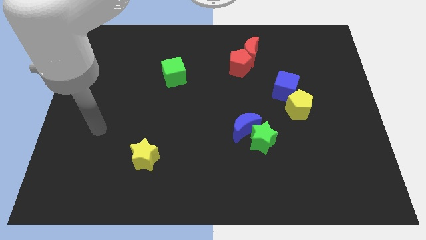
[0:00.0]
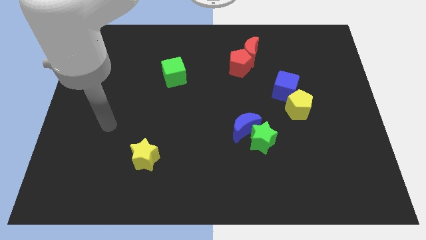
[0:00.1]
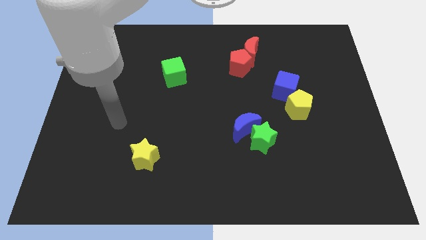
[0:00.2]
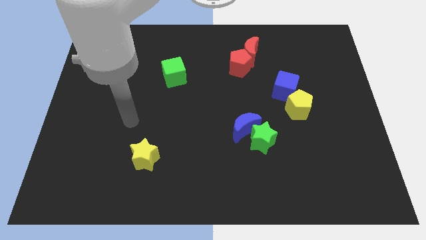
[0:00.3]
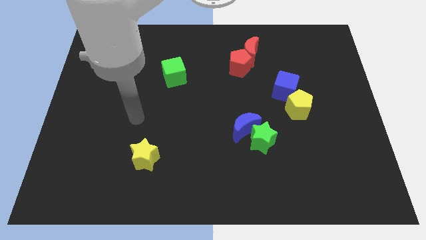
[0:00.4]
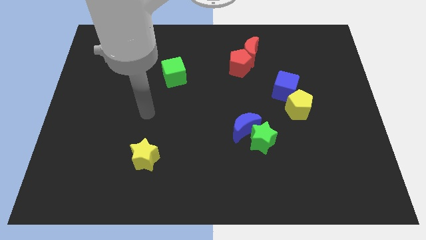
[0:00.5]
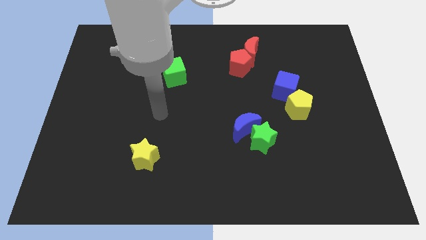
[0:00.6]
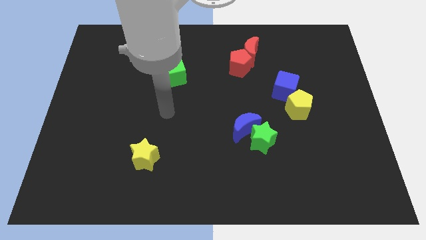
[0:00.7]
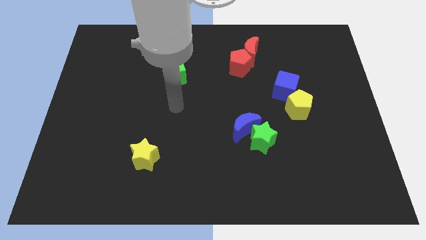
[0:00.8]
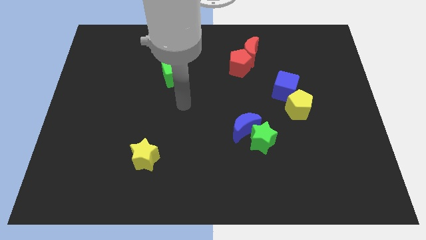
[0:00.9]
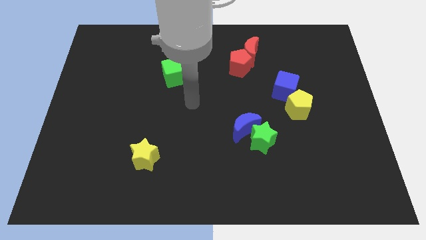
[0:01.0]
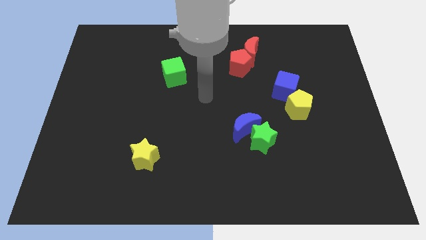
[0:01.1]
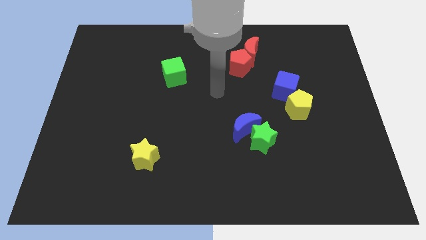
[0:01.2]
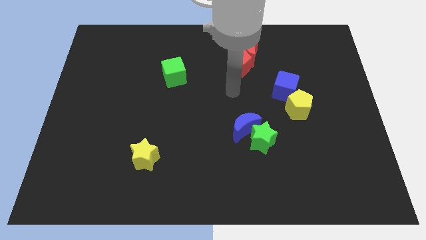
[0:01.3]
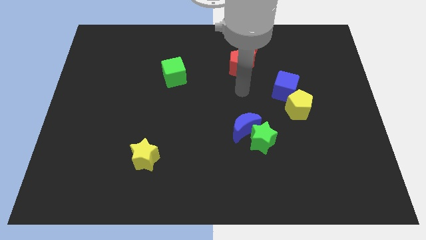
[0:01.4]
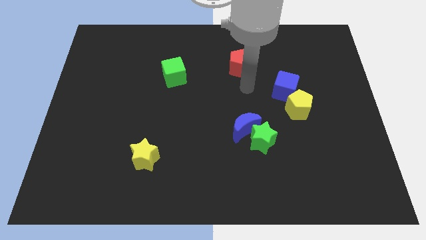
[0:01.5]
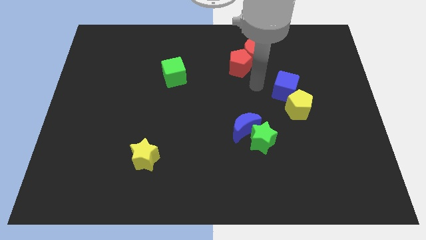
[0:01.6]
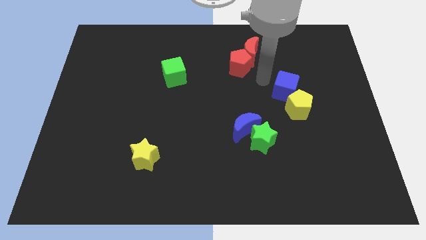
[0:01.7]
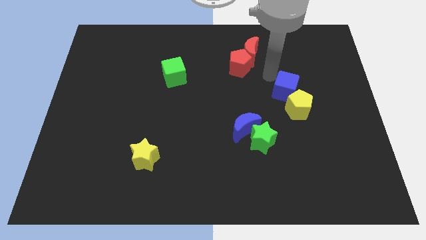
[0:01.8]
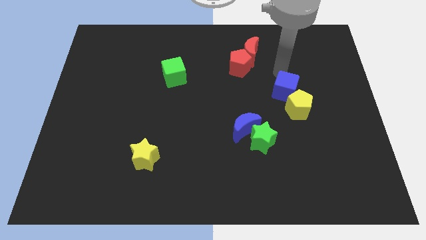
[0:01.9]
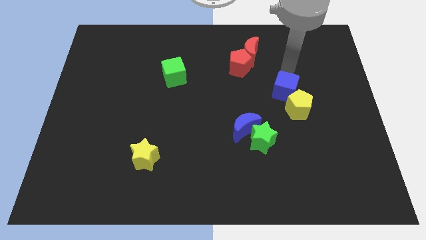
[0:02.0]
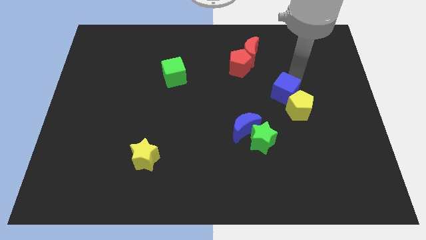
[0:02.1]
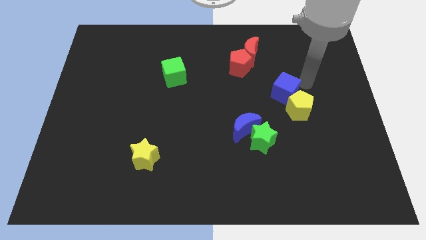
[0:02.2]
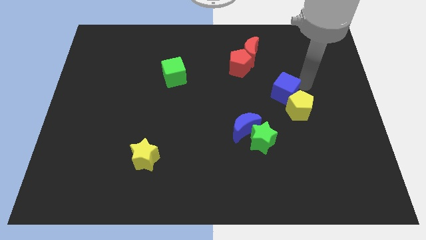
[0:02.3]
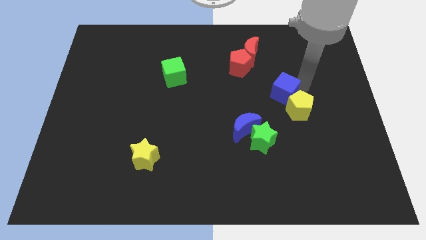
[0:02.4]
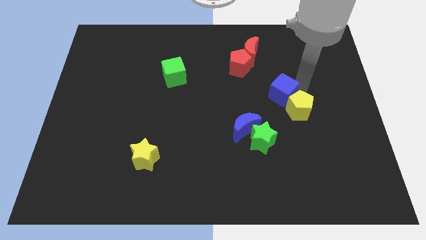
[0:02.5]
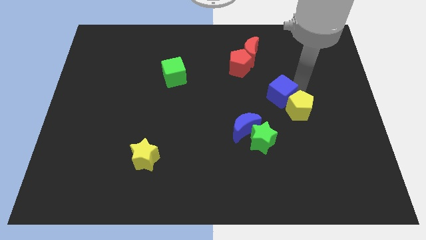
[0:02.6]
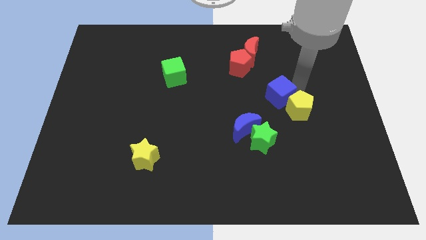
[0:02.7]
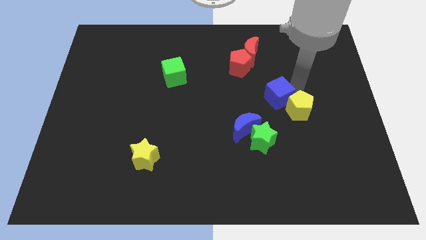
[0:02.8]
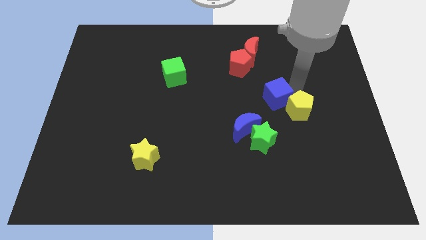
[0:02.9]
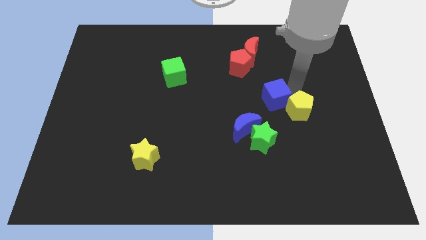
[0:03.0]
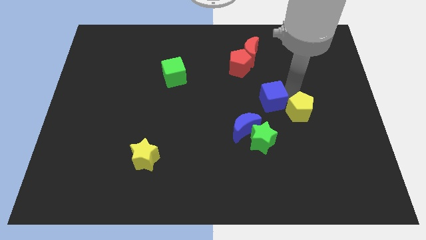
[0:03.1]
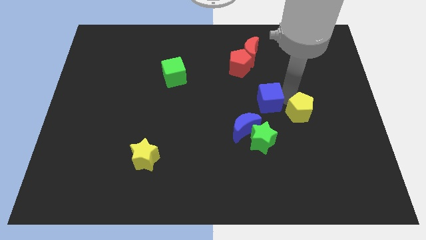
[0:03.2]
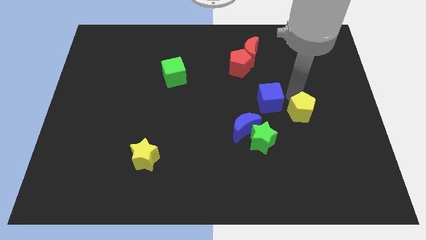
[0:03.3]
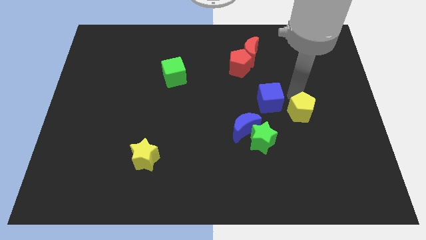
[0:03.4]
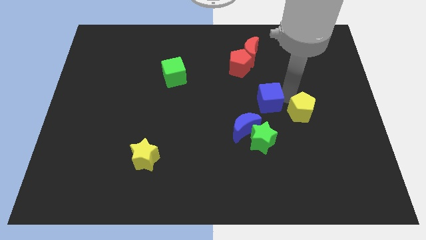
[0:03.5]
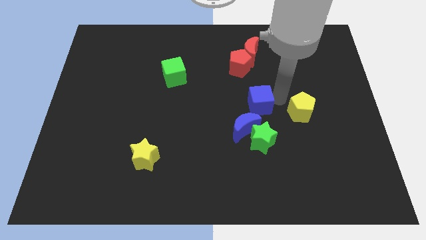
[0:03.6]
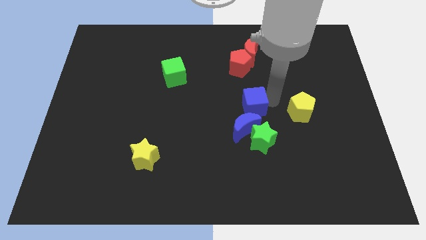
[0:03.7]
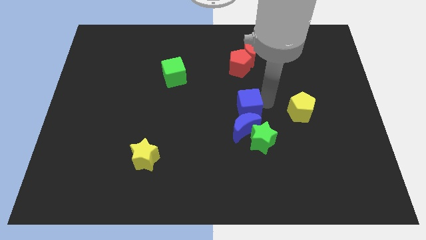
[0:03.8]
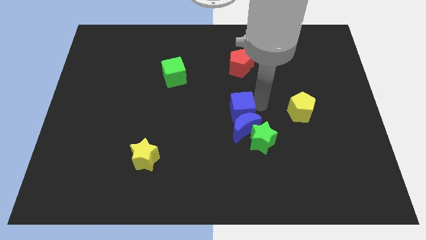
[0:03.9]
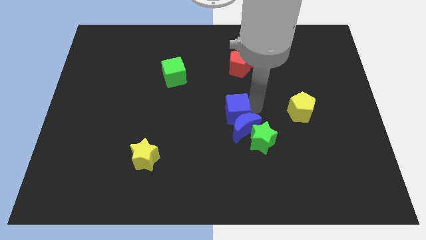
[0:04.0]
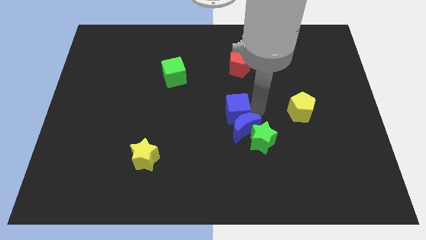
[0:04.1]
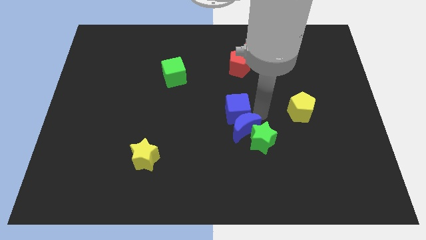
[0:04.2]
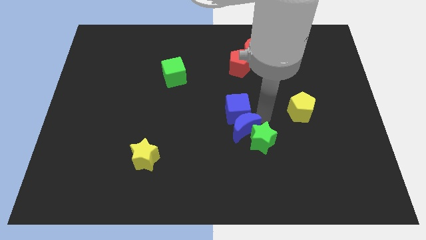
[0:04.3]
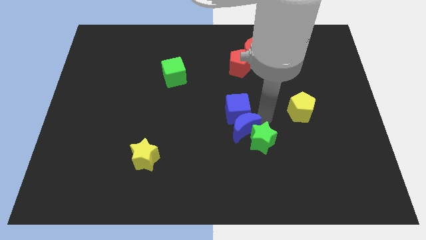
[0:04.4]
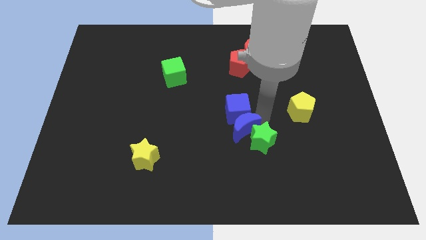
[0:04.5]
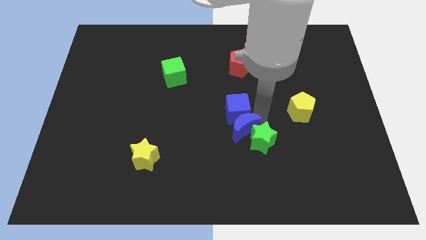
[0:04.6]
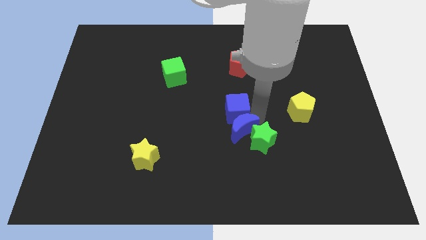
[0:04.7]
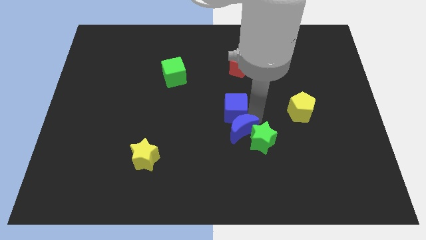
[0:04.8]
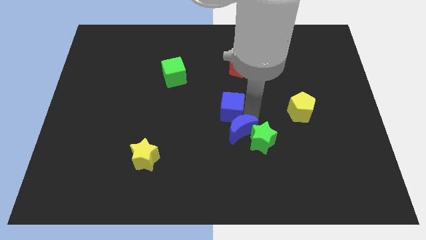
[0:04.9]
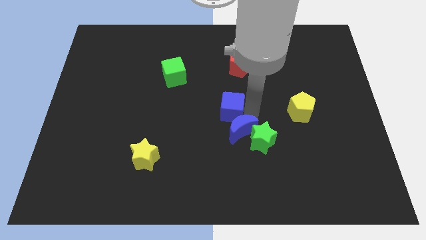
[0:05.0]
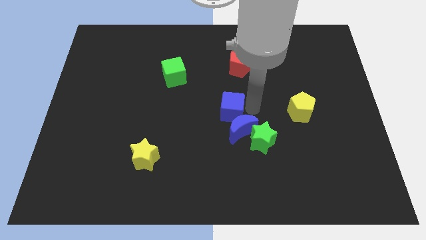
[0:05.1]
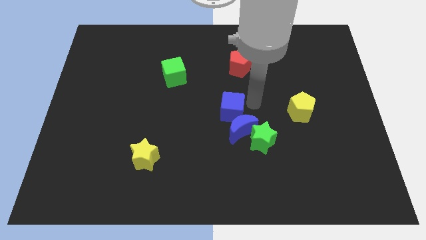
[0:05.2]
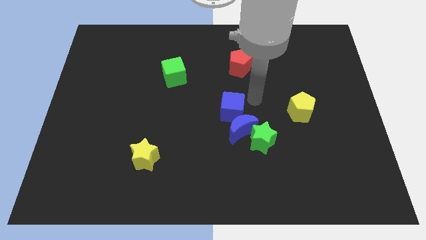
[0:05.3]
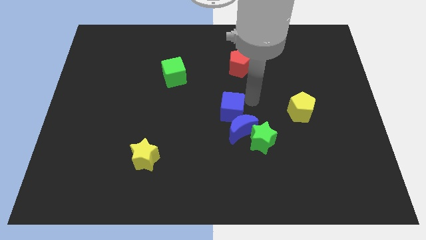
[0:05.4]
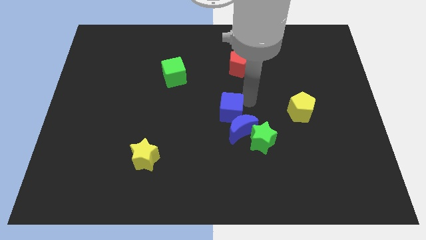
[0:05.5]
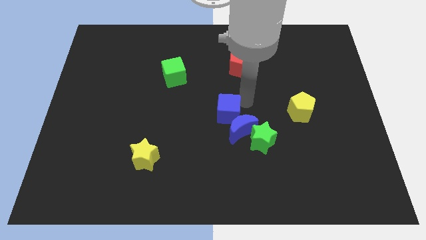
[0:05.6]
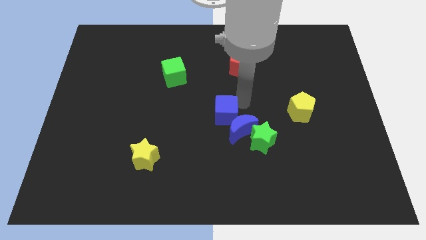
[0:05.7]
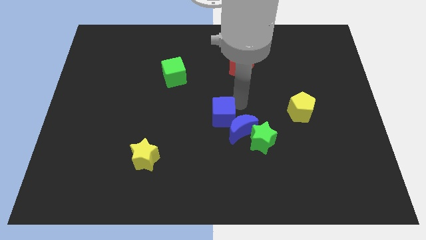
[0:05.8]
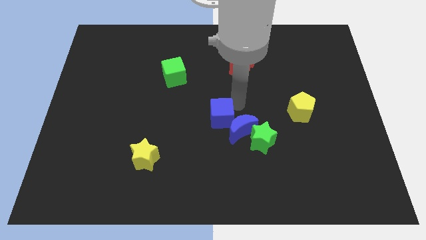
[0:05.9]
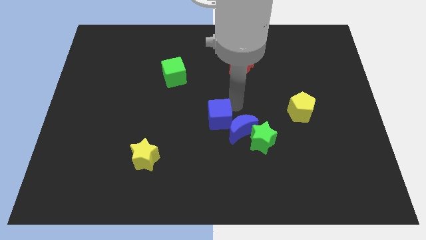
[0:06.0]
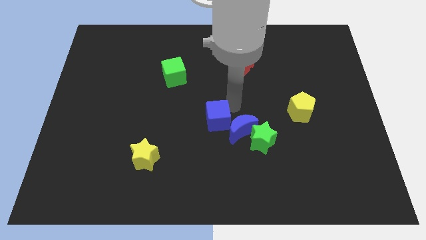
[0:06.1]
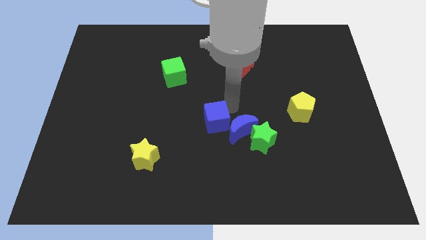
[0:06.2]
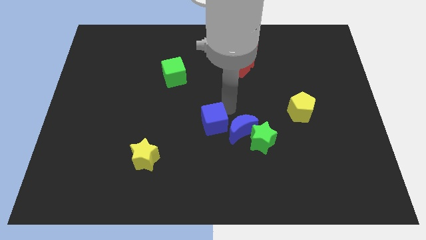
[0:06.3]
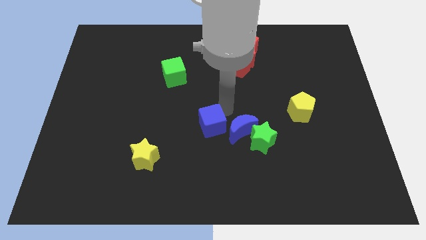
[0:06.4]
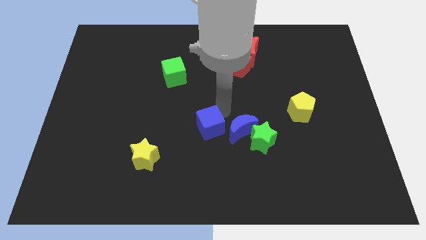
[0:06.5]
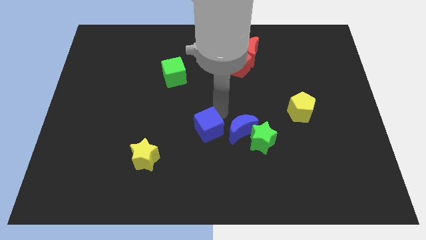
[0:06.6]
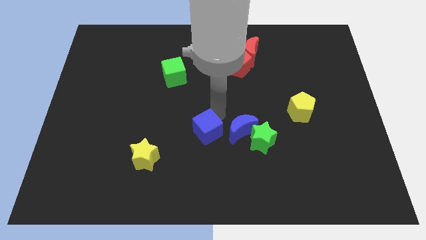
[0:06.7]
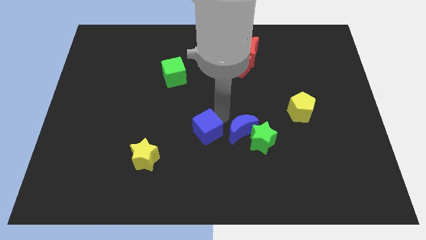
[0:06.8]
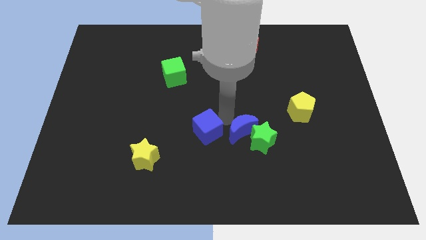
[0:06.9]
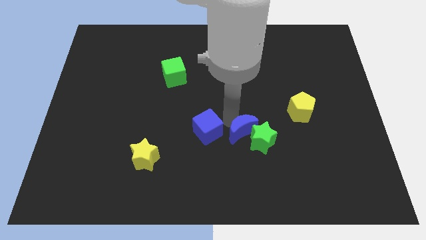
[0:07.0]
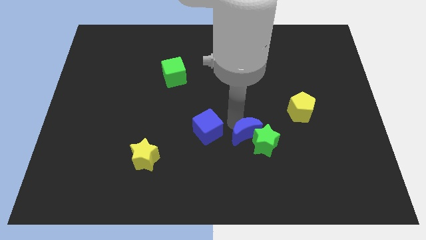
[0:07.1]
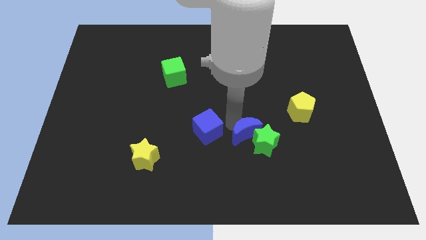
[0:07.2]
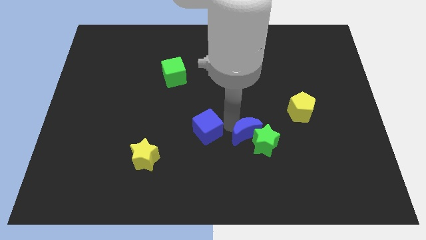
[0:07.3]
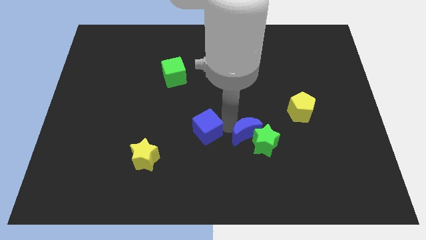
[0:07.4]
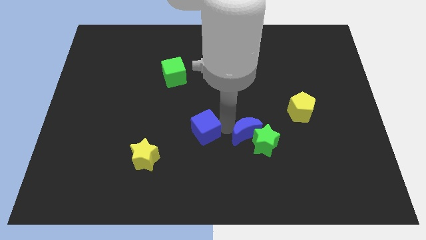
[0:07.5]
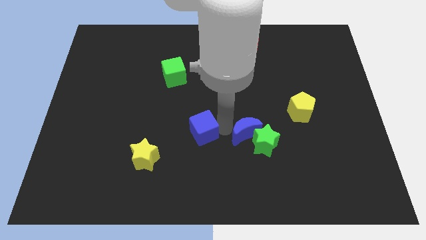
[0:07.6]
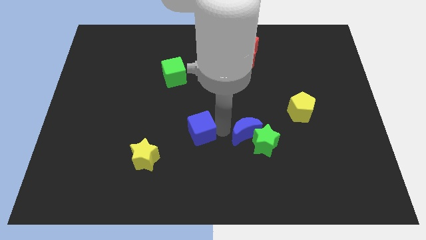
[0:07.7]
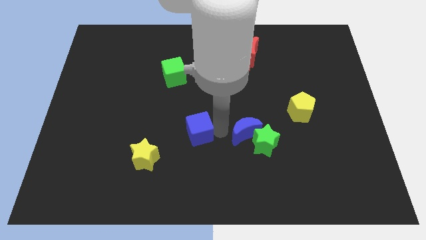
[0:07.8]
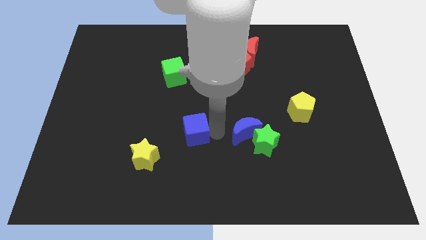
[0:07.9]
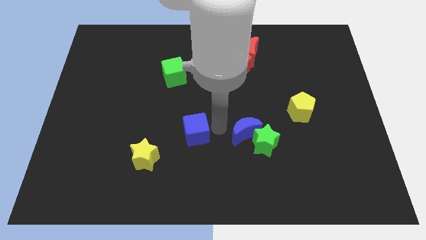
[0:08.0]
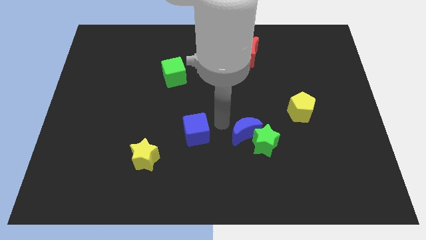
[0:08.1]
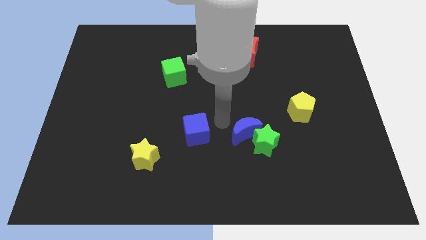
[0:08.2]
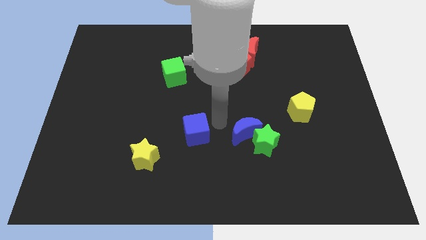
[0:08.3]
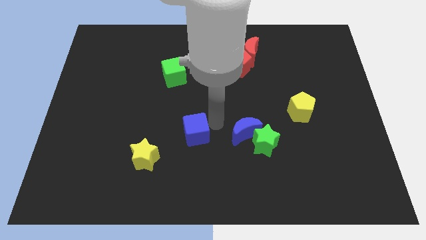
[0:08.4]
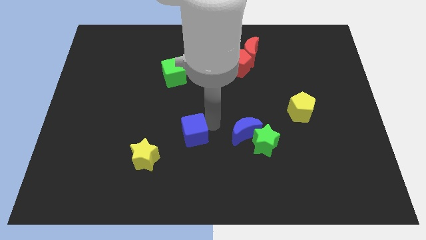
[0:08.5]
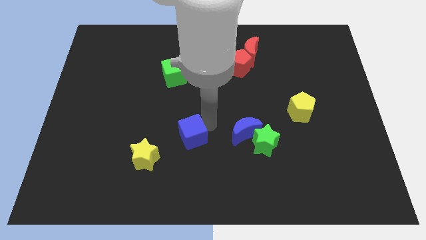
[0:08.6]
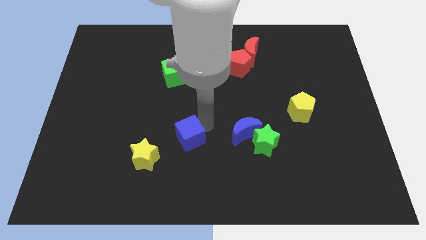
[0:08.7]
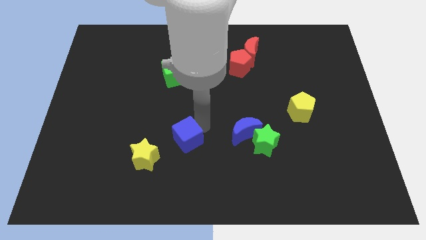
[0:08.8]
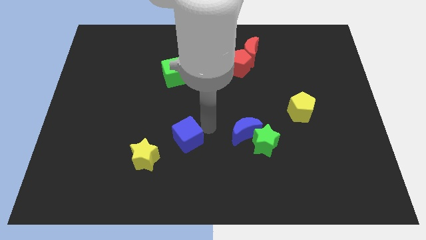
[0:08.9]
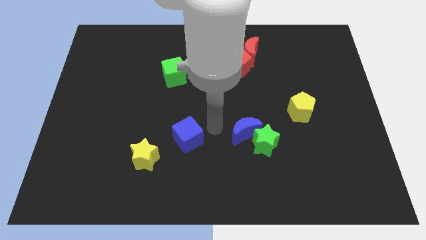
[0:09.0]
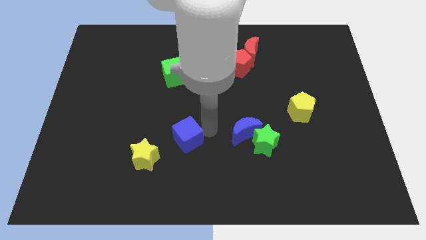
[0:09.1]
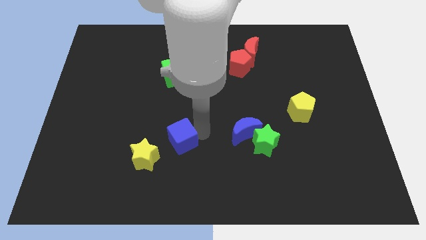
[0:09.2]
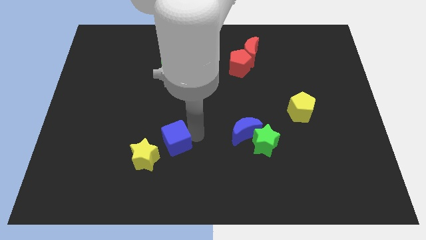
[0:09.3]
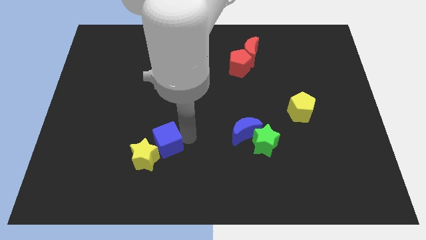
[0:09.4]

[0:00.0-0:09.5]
push the blue cube close to the yellow star
